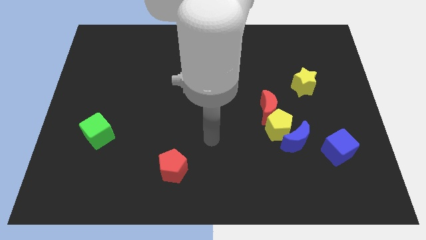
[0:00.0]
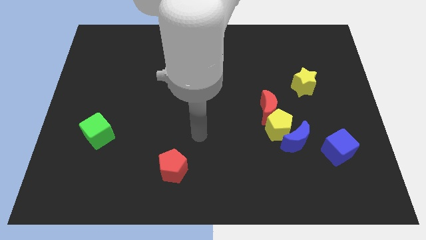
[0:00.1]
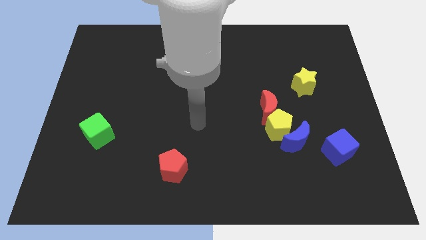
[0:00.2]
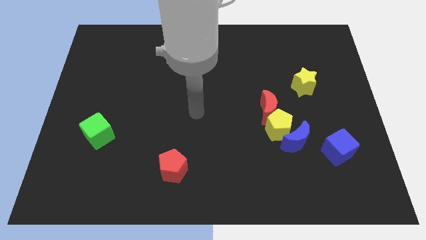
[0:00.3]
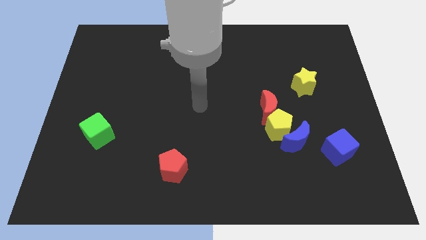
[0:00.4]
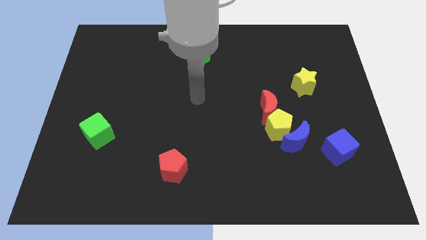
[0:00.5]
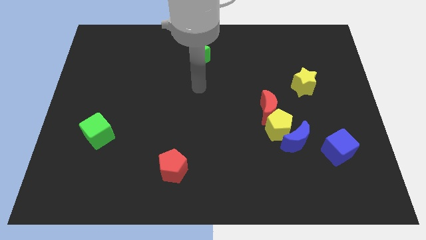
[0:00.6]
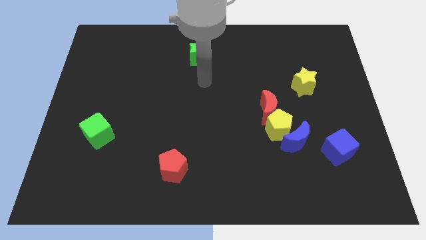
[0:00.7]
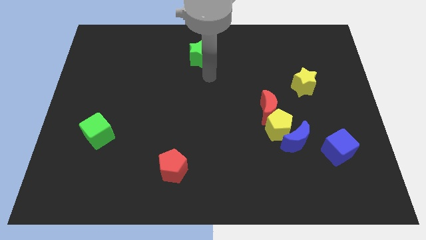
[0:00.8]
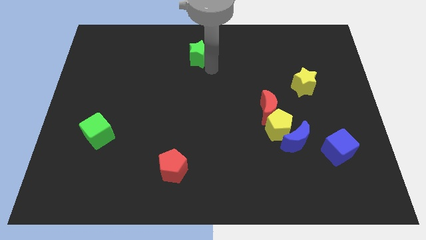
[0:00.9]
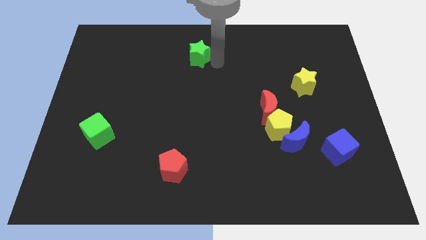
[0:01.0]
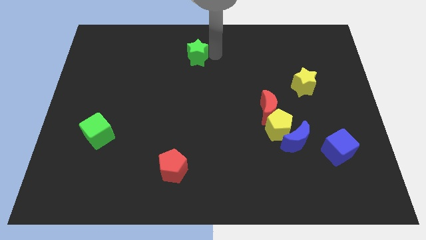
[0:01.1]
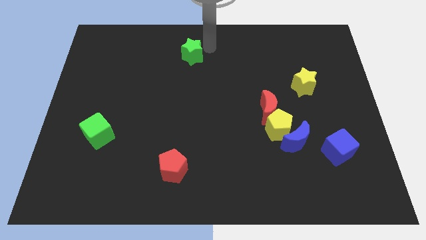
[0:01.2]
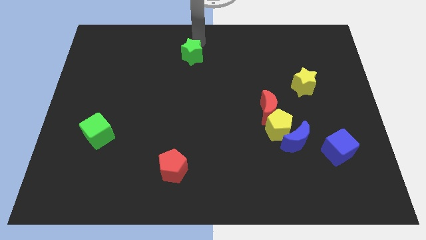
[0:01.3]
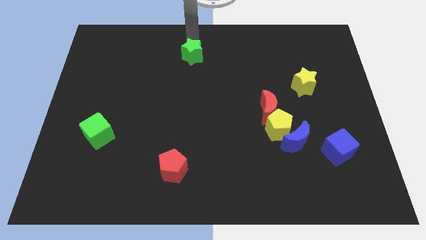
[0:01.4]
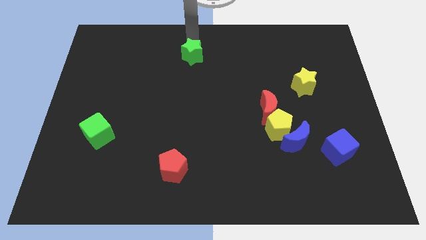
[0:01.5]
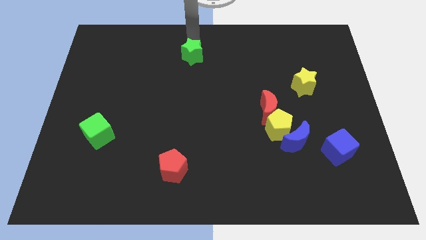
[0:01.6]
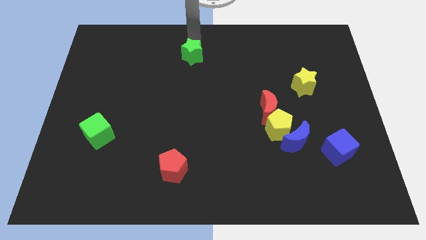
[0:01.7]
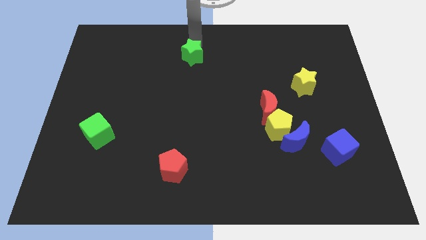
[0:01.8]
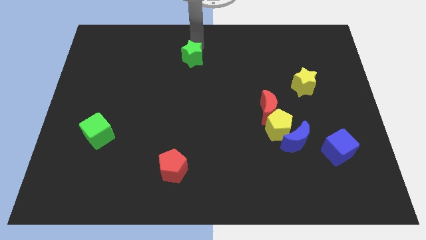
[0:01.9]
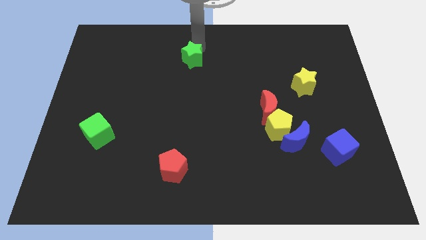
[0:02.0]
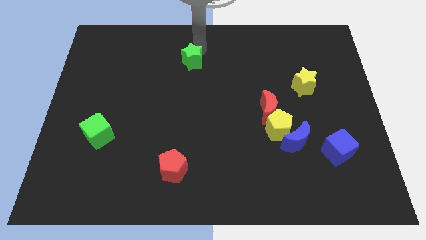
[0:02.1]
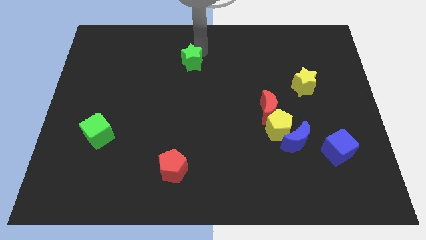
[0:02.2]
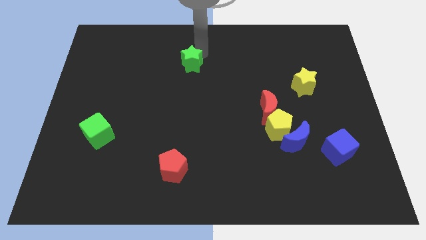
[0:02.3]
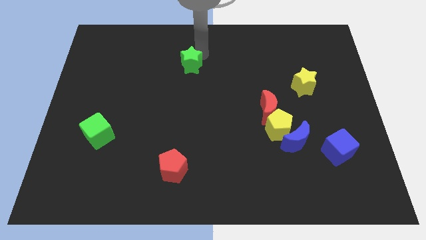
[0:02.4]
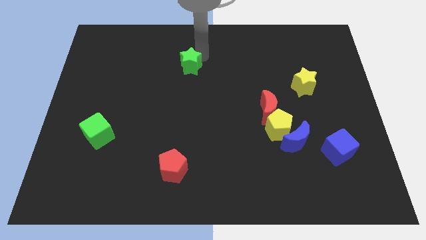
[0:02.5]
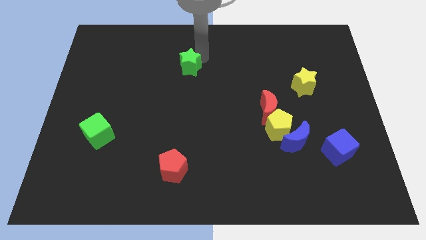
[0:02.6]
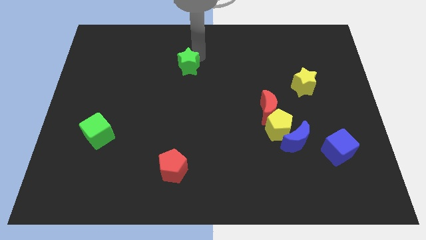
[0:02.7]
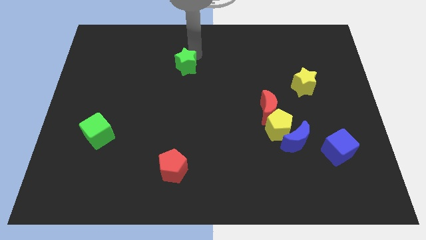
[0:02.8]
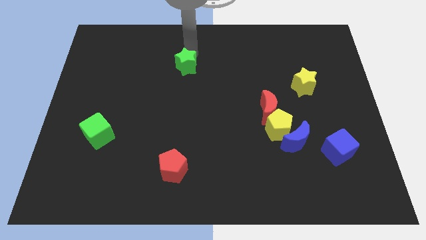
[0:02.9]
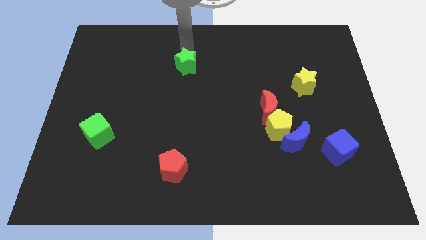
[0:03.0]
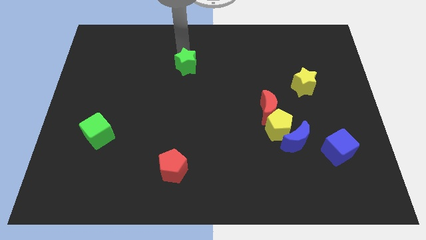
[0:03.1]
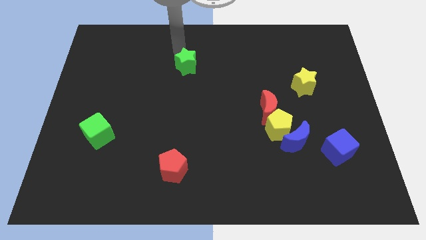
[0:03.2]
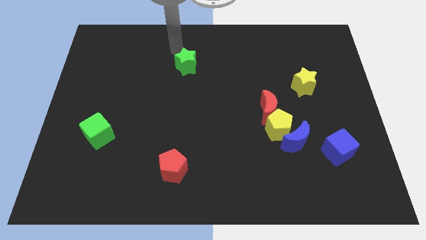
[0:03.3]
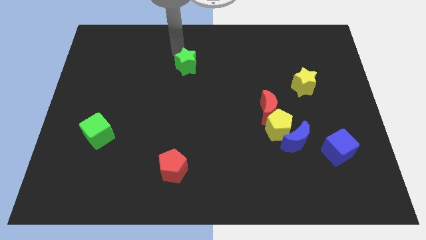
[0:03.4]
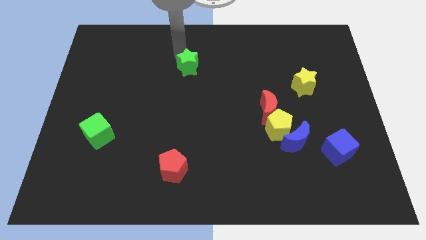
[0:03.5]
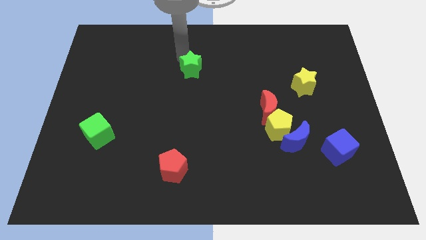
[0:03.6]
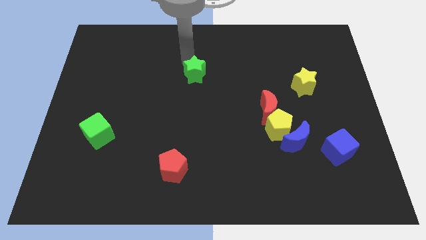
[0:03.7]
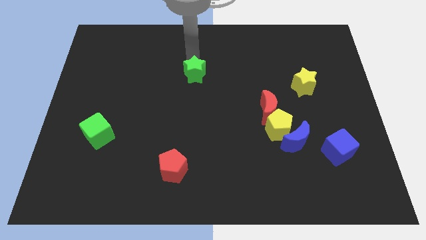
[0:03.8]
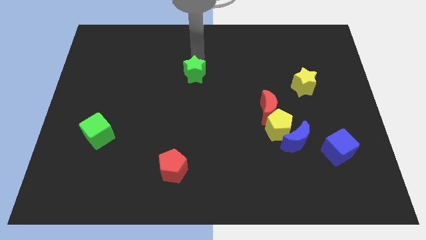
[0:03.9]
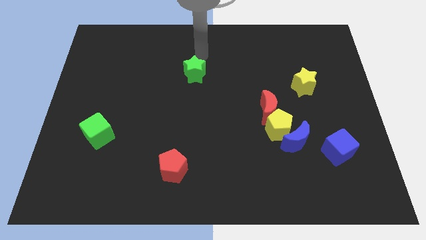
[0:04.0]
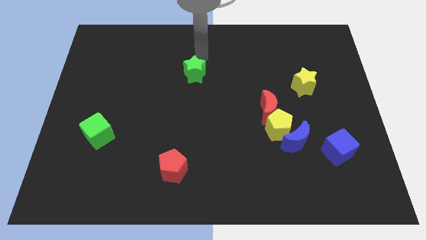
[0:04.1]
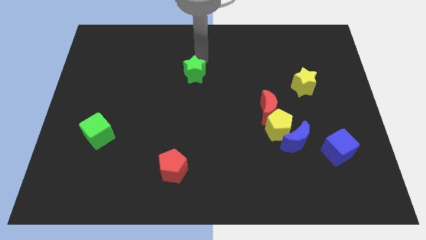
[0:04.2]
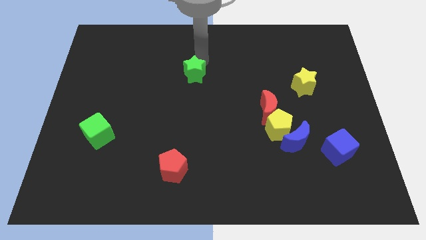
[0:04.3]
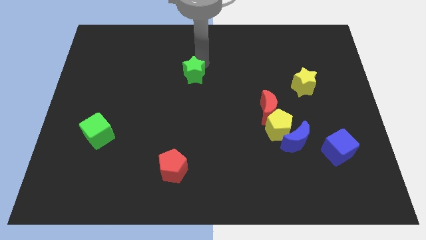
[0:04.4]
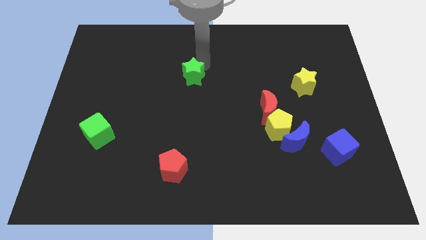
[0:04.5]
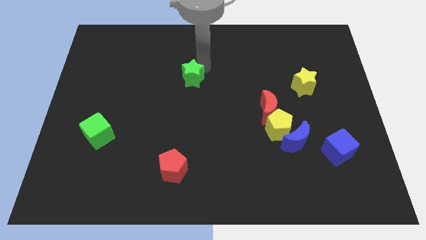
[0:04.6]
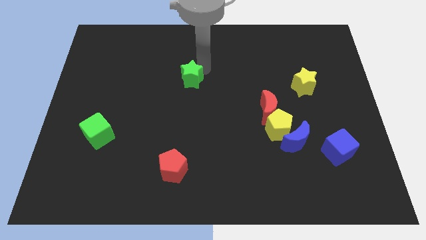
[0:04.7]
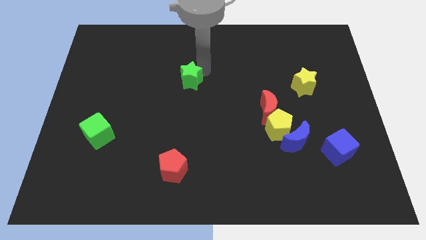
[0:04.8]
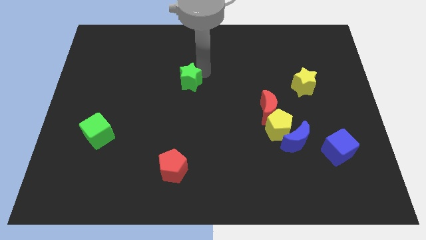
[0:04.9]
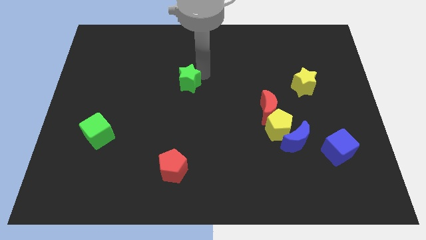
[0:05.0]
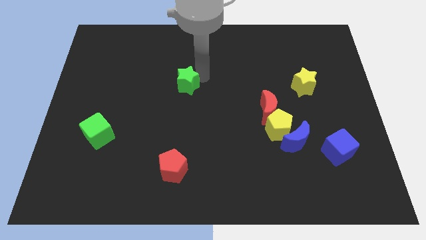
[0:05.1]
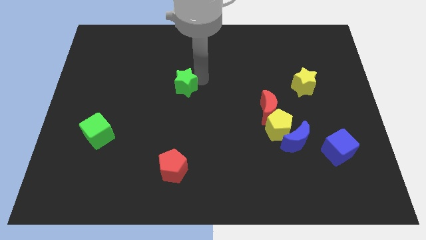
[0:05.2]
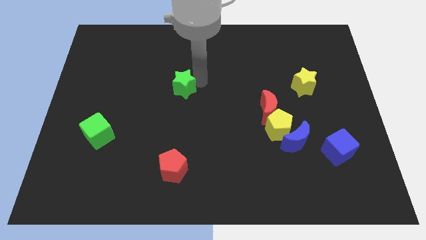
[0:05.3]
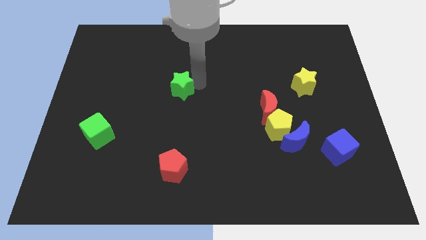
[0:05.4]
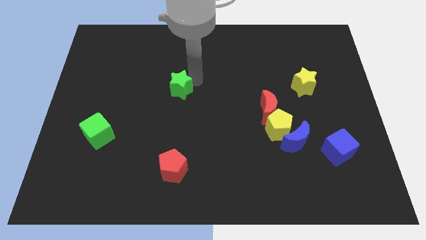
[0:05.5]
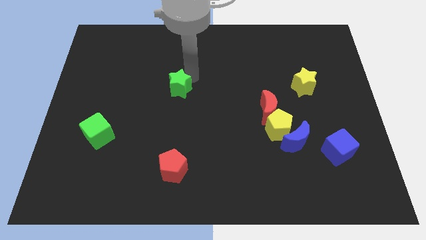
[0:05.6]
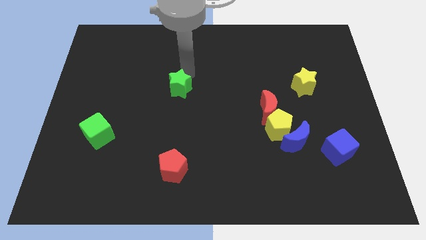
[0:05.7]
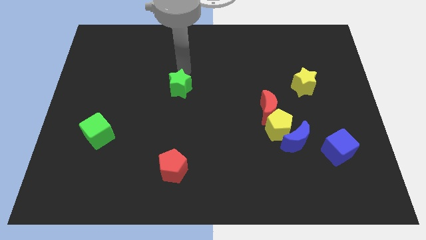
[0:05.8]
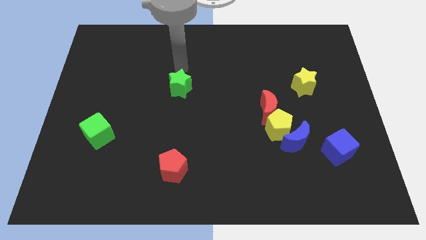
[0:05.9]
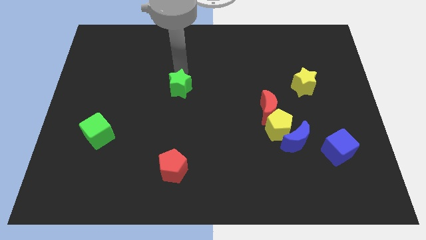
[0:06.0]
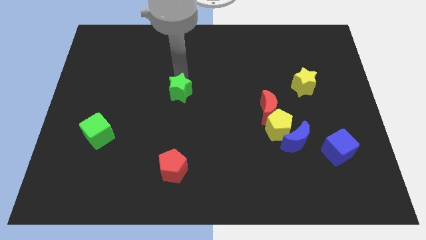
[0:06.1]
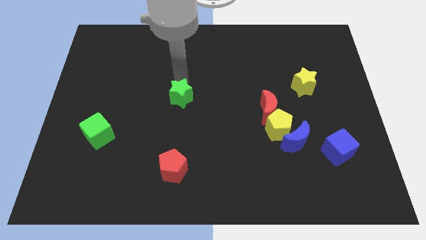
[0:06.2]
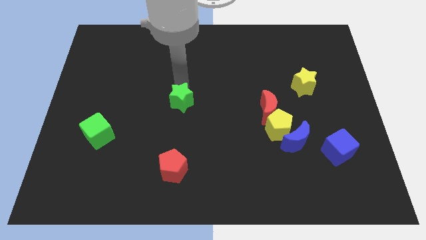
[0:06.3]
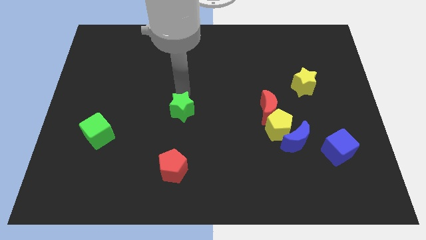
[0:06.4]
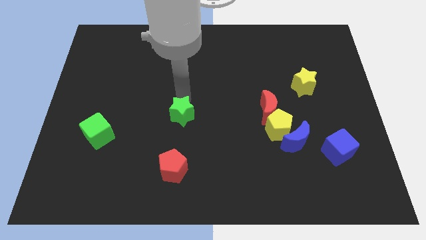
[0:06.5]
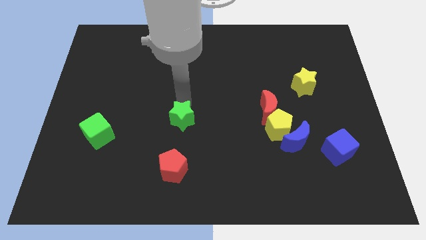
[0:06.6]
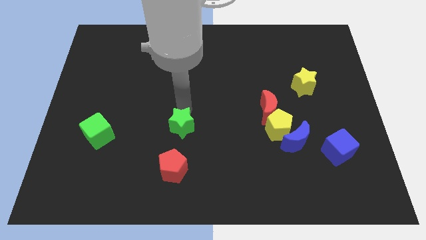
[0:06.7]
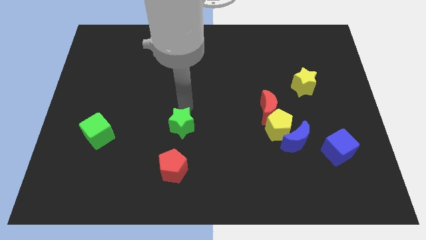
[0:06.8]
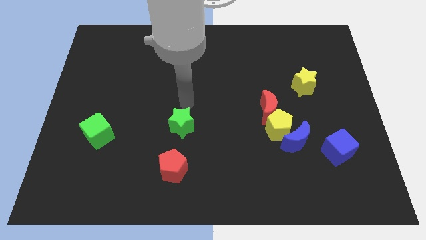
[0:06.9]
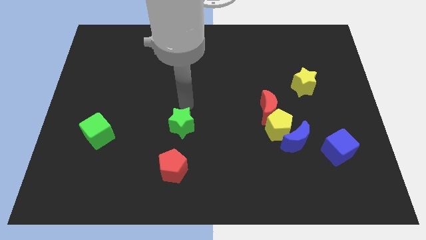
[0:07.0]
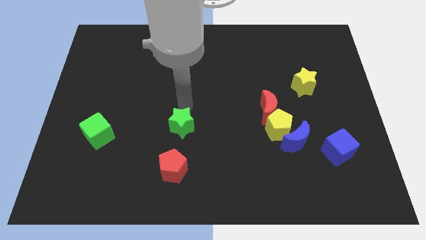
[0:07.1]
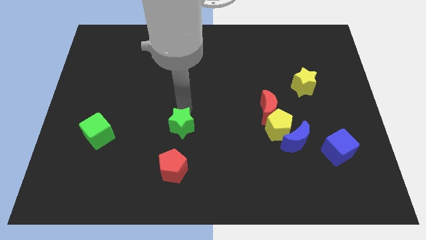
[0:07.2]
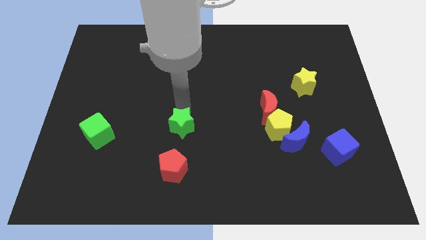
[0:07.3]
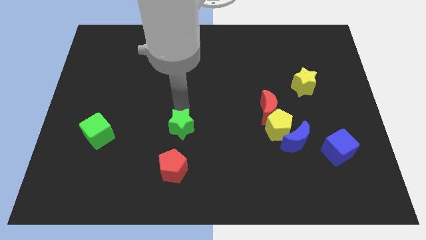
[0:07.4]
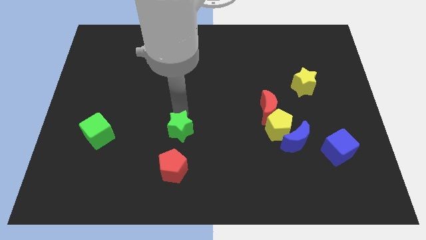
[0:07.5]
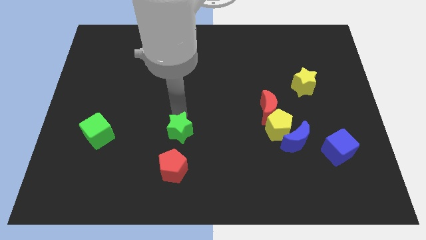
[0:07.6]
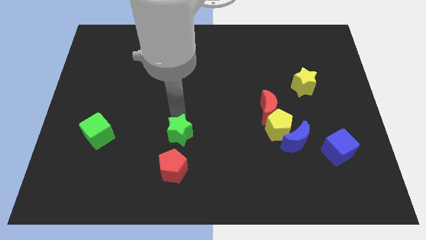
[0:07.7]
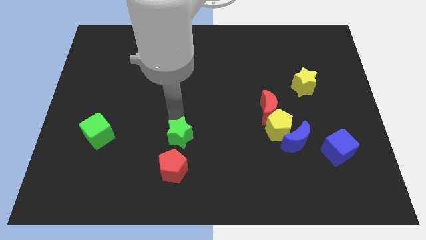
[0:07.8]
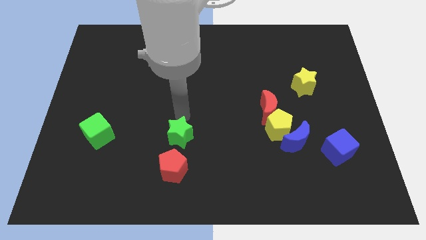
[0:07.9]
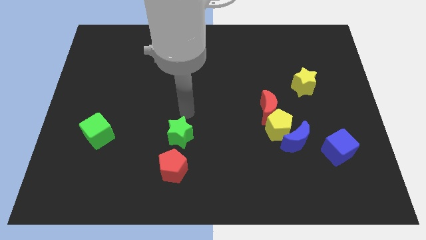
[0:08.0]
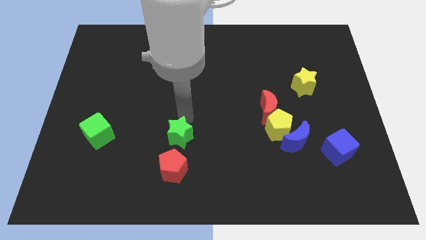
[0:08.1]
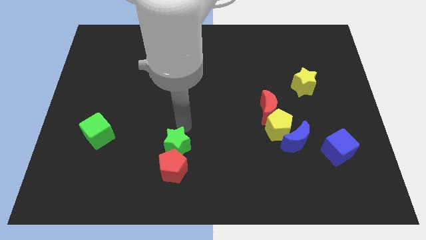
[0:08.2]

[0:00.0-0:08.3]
move the green star towards the red pentagon
